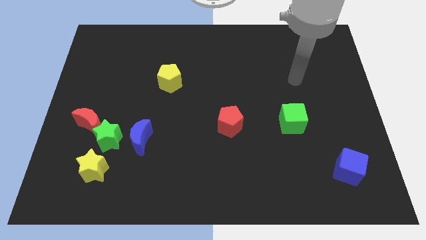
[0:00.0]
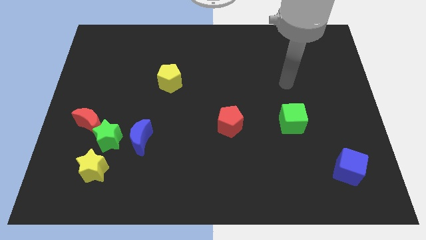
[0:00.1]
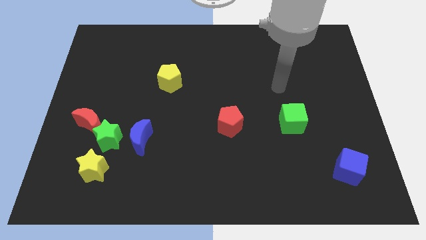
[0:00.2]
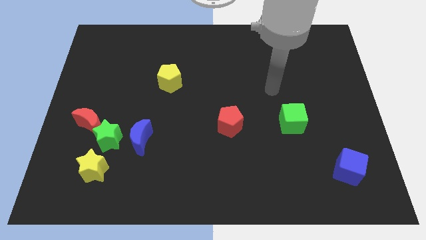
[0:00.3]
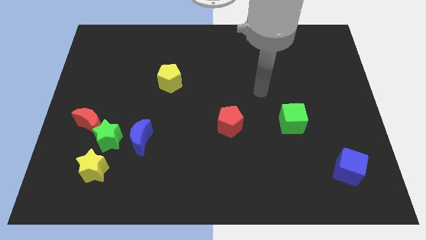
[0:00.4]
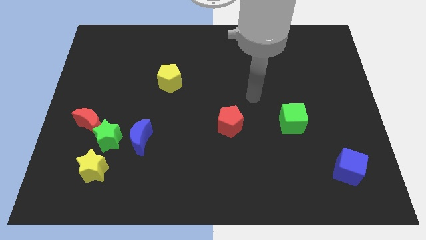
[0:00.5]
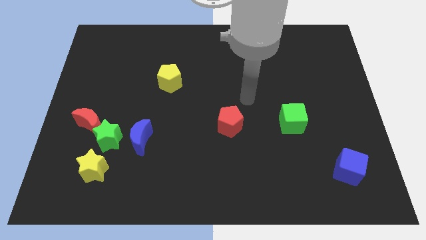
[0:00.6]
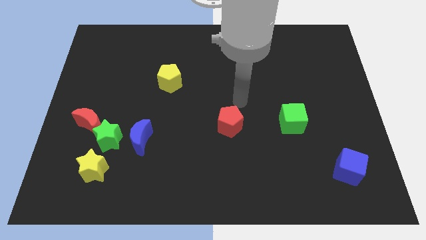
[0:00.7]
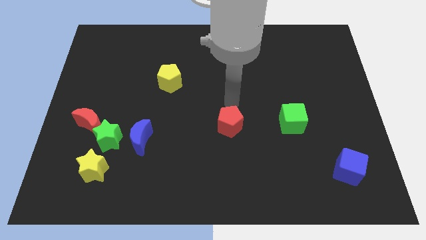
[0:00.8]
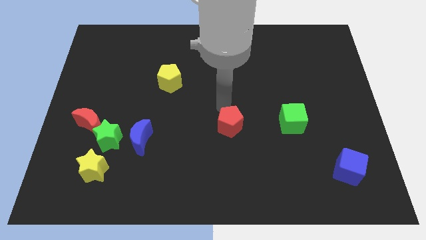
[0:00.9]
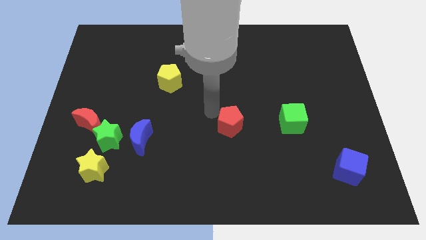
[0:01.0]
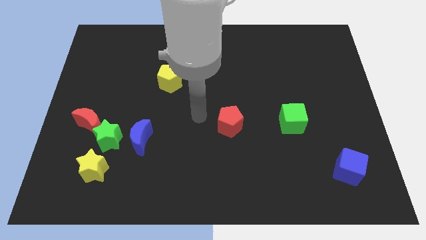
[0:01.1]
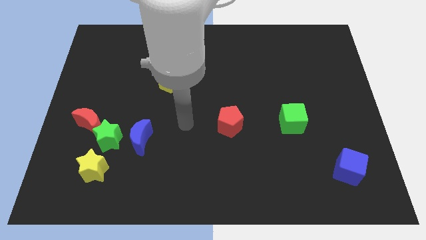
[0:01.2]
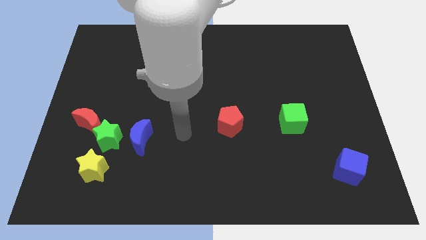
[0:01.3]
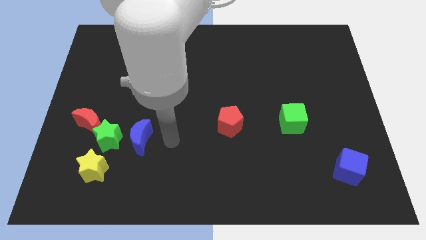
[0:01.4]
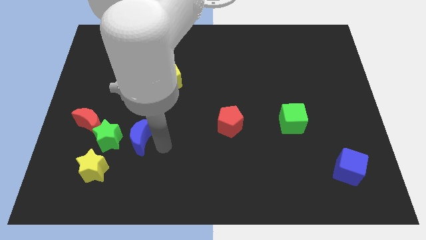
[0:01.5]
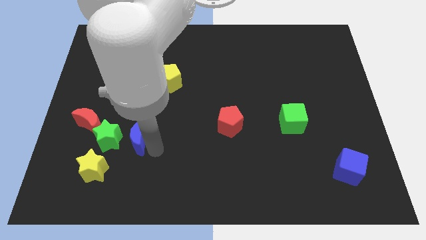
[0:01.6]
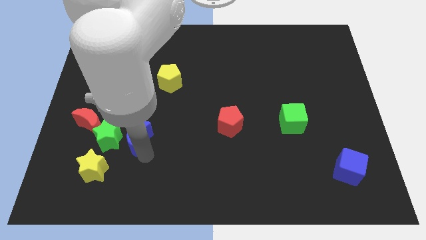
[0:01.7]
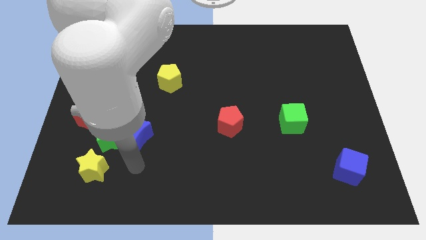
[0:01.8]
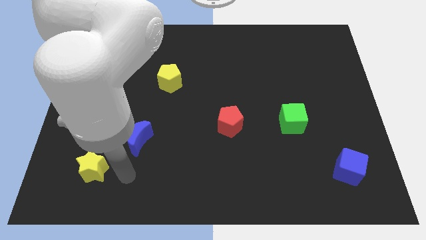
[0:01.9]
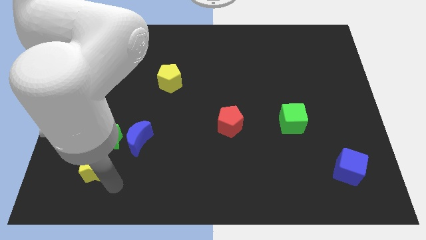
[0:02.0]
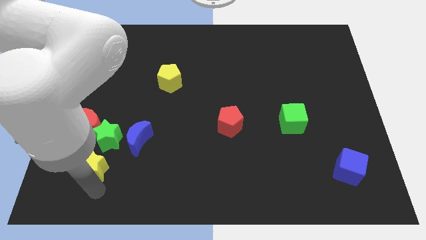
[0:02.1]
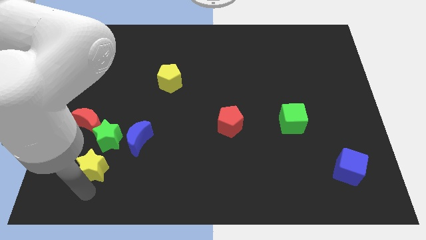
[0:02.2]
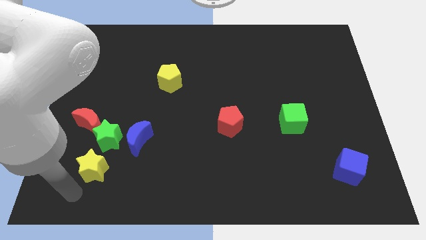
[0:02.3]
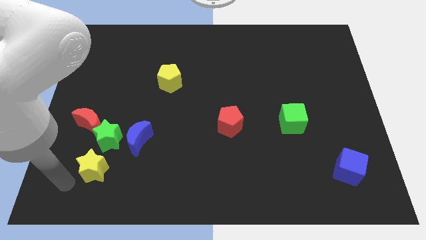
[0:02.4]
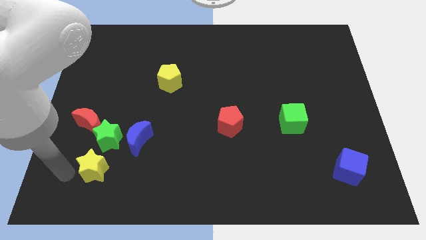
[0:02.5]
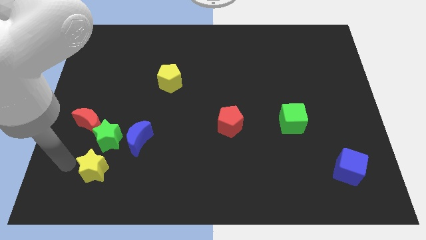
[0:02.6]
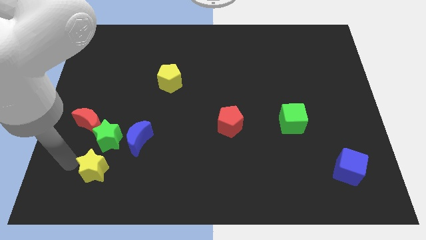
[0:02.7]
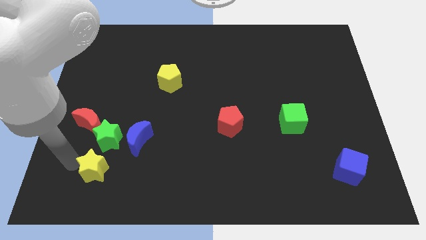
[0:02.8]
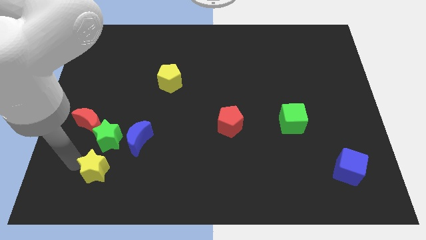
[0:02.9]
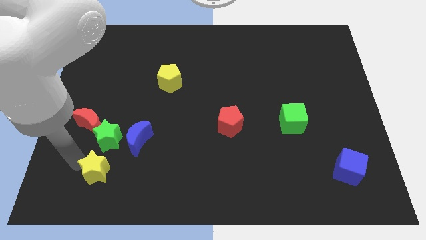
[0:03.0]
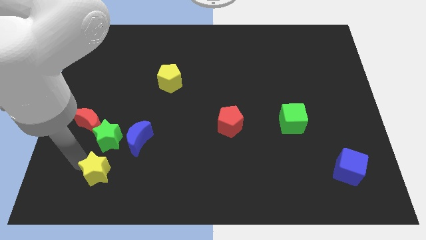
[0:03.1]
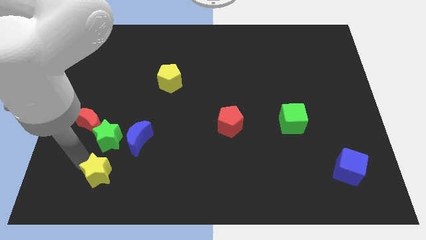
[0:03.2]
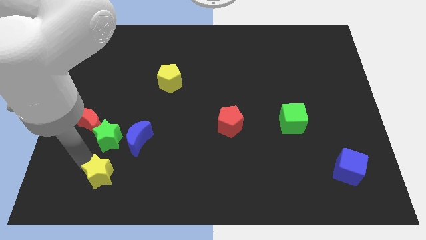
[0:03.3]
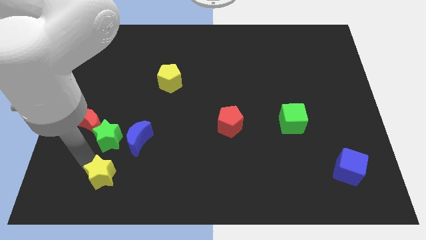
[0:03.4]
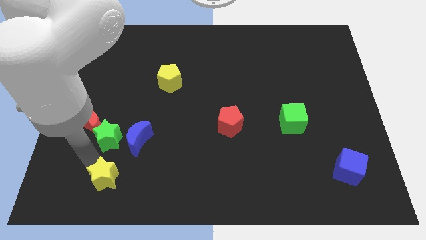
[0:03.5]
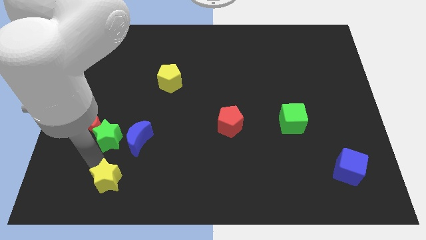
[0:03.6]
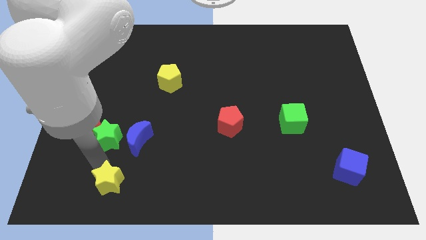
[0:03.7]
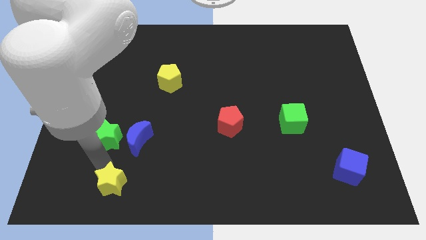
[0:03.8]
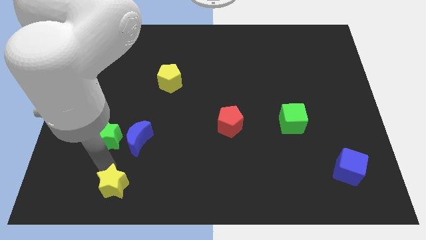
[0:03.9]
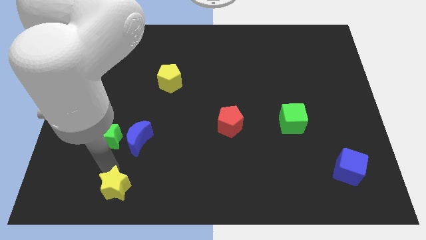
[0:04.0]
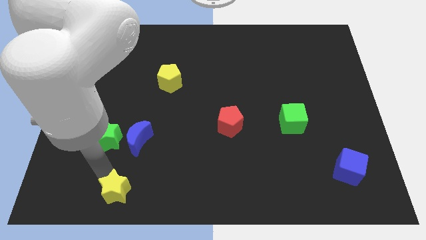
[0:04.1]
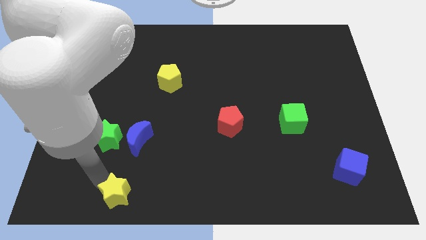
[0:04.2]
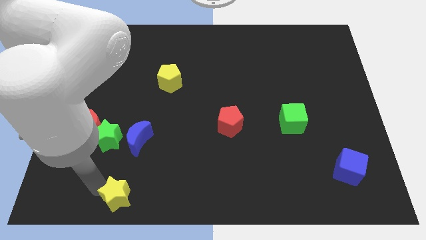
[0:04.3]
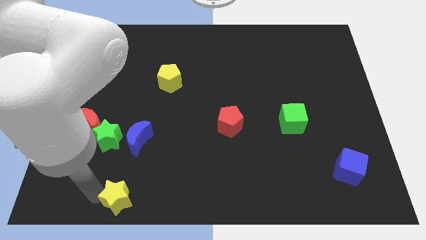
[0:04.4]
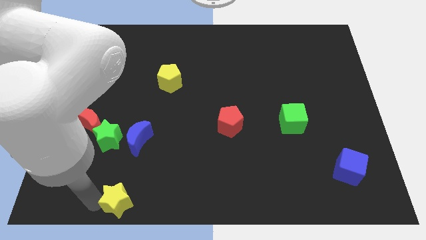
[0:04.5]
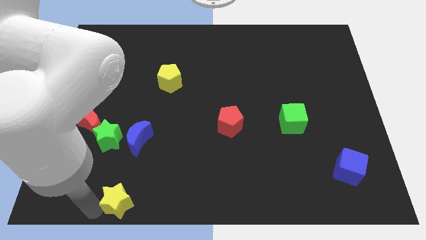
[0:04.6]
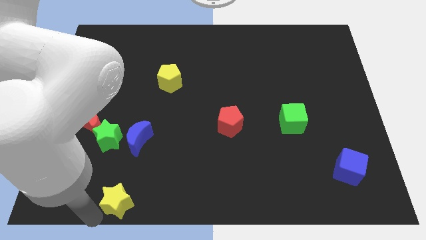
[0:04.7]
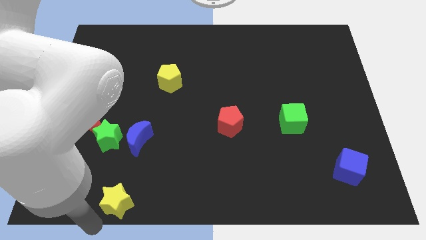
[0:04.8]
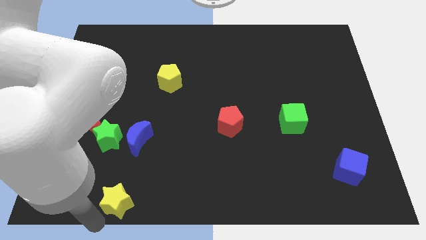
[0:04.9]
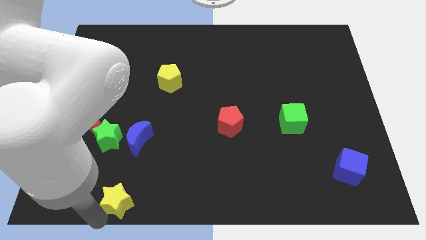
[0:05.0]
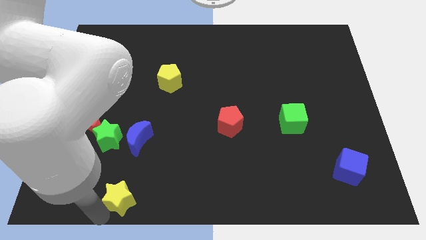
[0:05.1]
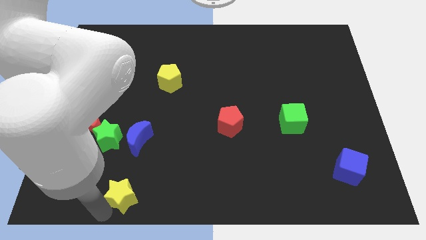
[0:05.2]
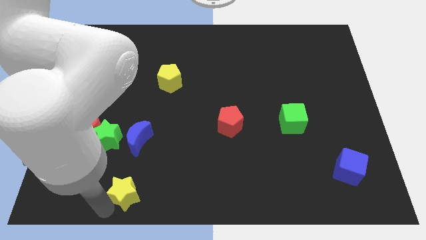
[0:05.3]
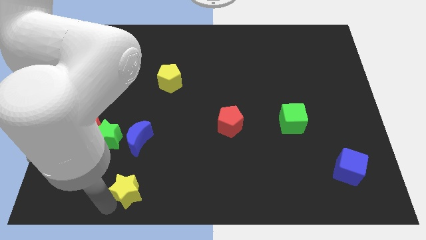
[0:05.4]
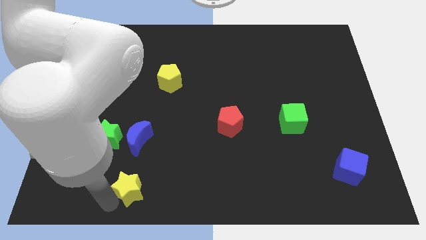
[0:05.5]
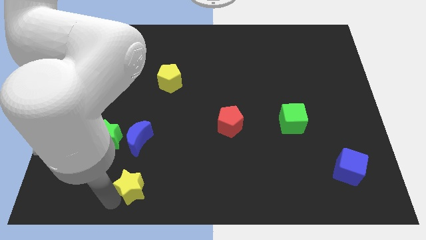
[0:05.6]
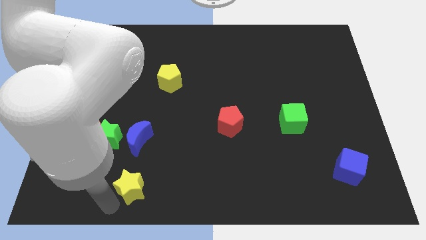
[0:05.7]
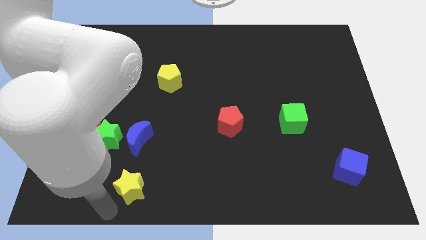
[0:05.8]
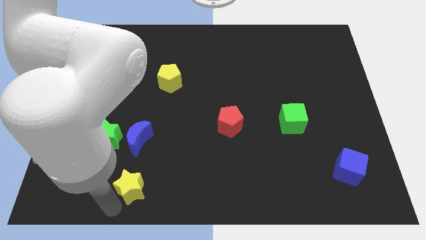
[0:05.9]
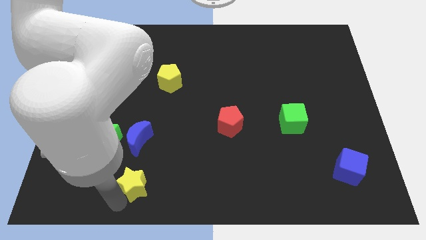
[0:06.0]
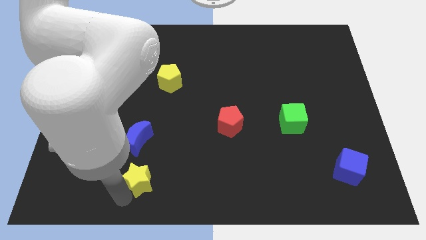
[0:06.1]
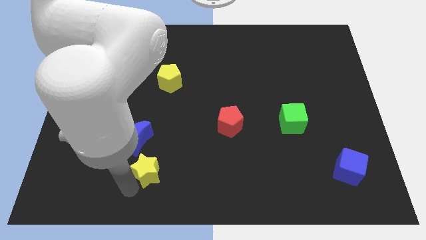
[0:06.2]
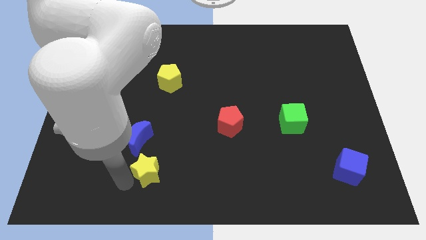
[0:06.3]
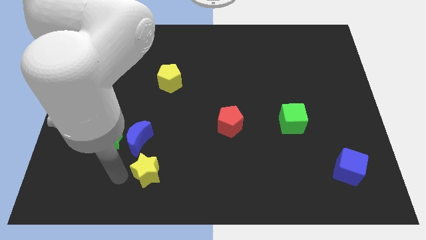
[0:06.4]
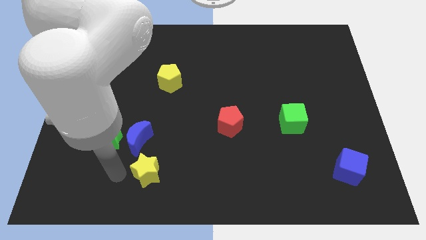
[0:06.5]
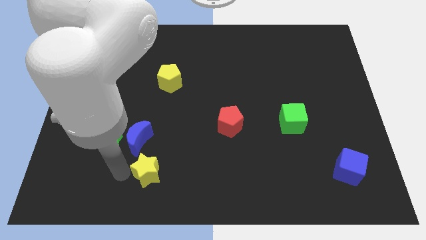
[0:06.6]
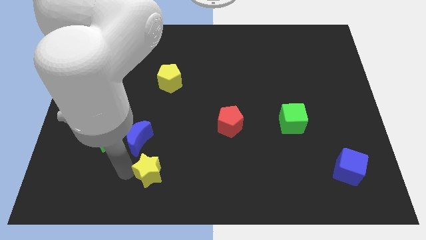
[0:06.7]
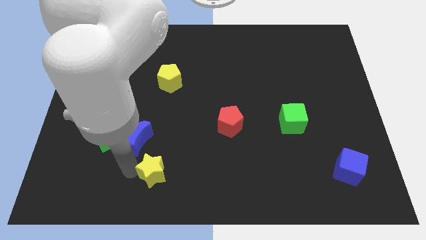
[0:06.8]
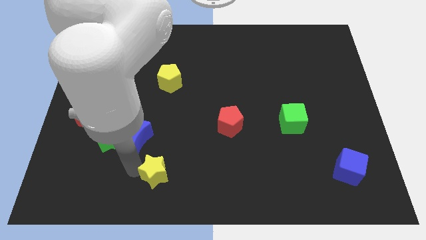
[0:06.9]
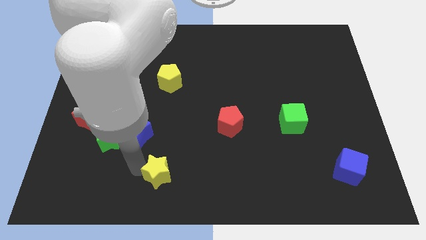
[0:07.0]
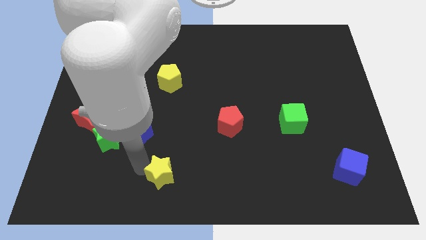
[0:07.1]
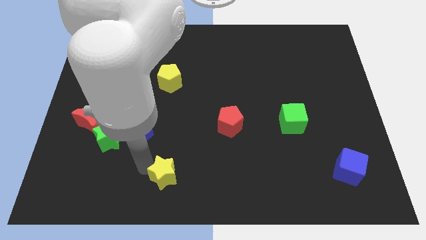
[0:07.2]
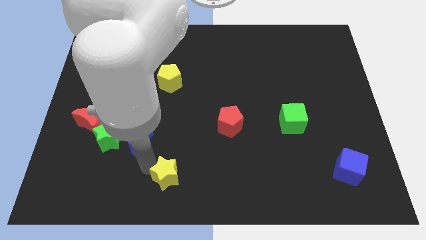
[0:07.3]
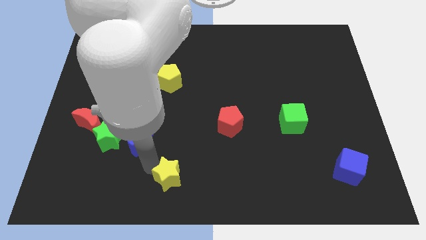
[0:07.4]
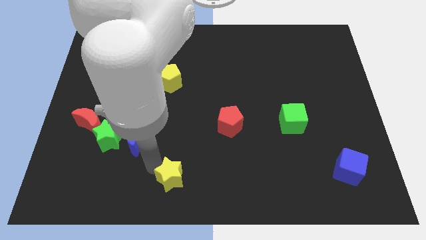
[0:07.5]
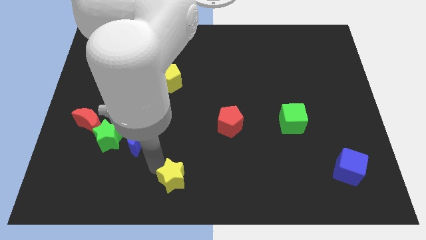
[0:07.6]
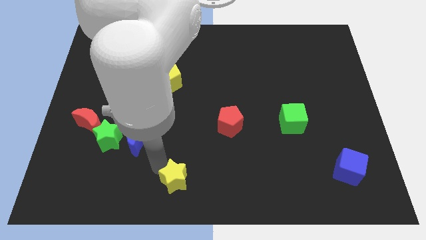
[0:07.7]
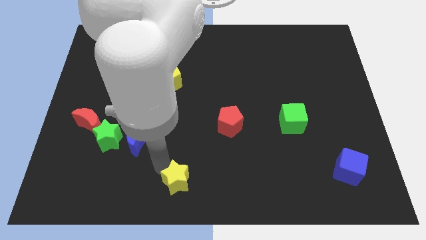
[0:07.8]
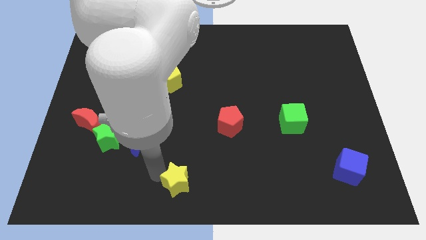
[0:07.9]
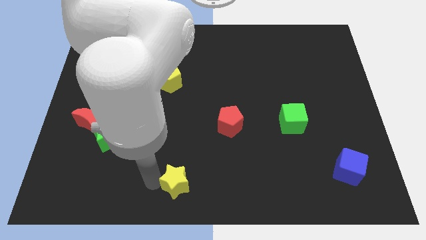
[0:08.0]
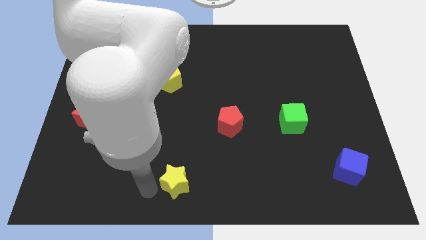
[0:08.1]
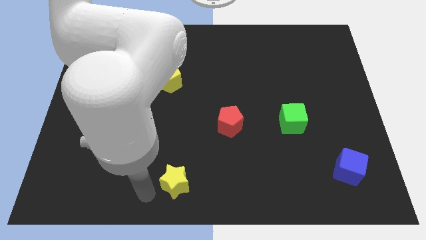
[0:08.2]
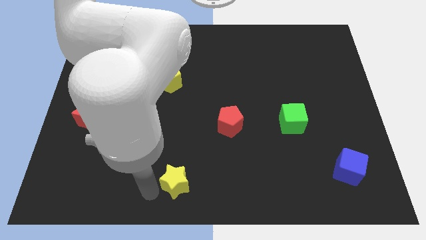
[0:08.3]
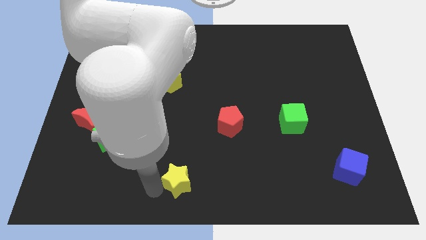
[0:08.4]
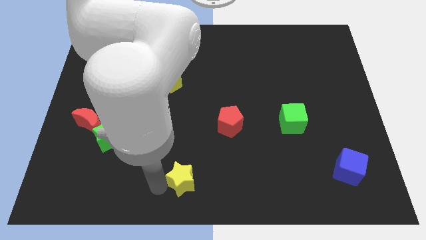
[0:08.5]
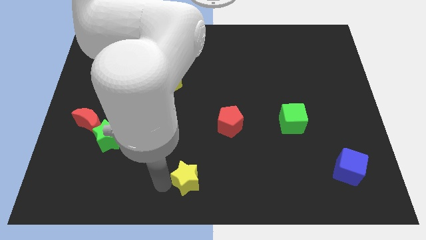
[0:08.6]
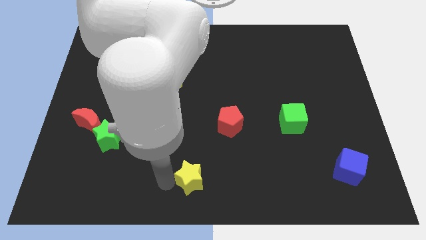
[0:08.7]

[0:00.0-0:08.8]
slide the yellow star to the right
